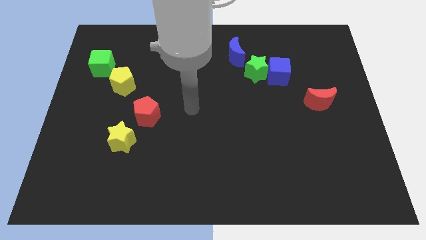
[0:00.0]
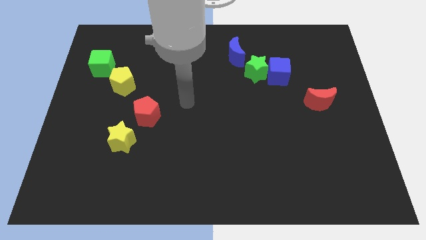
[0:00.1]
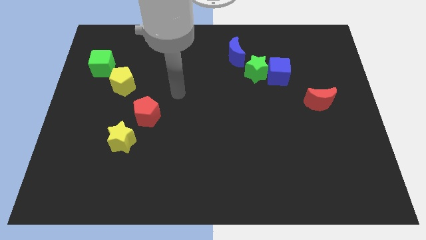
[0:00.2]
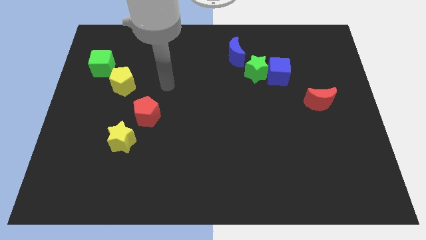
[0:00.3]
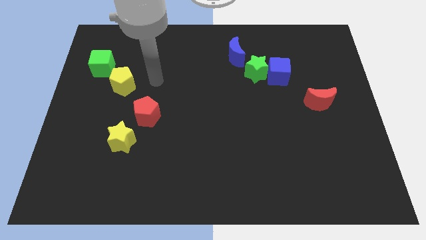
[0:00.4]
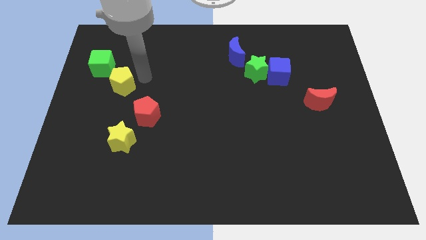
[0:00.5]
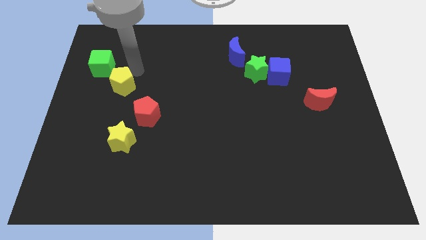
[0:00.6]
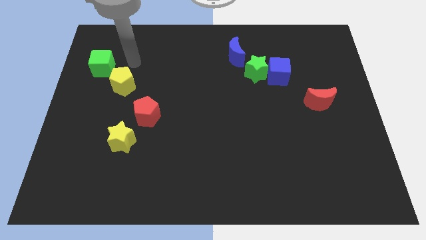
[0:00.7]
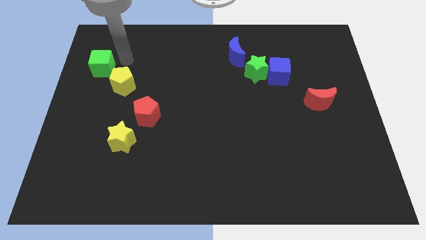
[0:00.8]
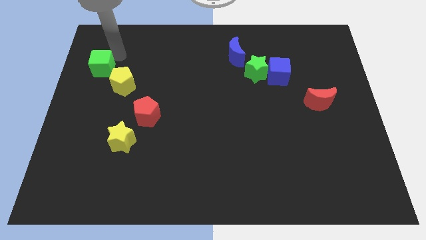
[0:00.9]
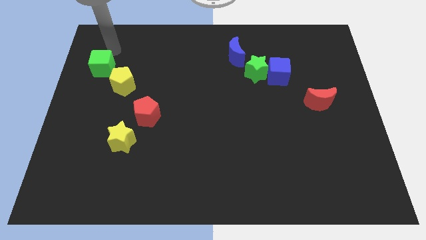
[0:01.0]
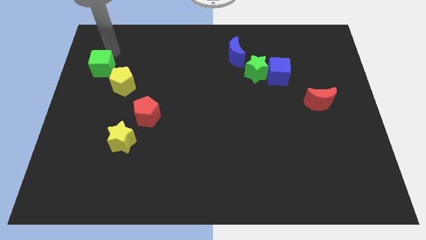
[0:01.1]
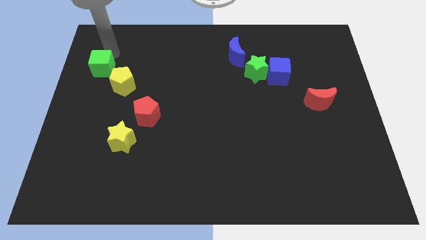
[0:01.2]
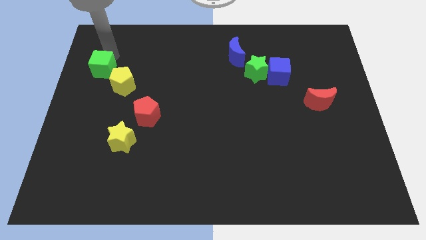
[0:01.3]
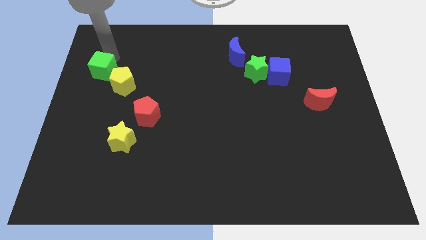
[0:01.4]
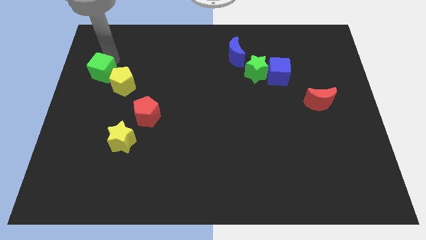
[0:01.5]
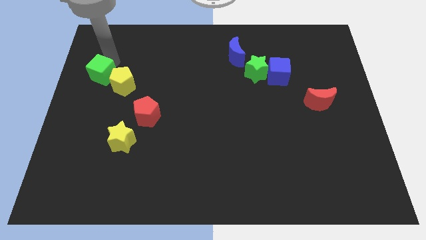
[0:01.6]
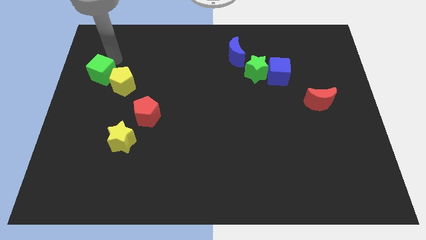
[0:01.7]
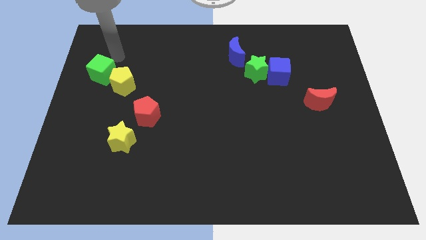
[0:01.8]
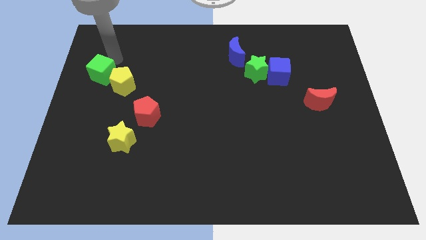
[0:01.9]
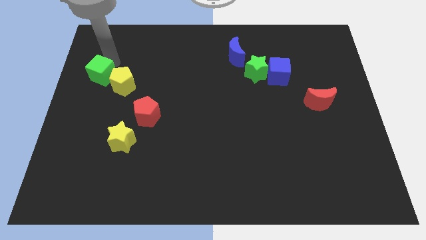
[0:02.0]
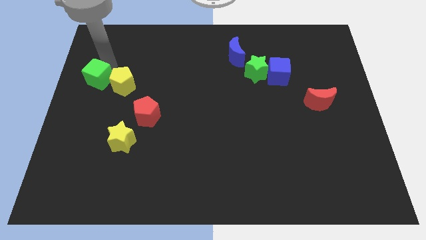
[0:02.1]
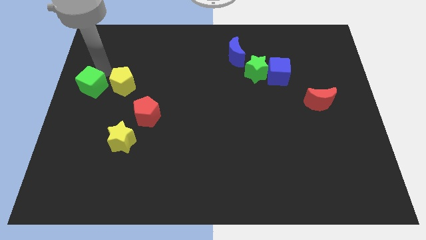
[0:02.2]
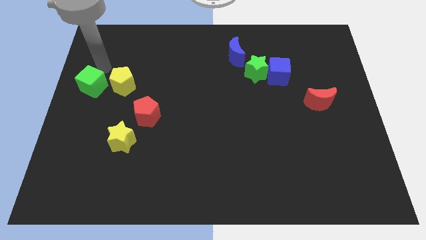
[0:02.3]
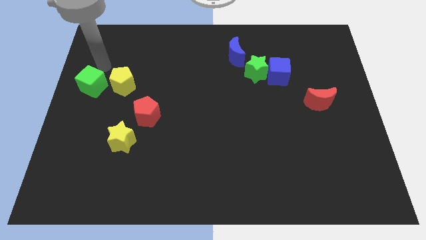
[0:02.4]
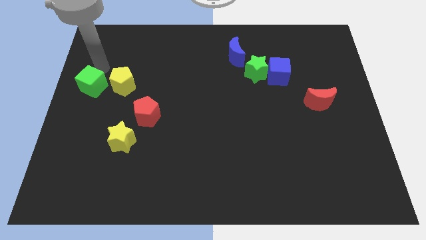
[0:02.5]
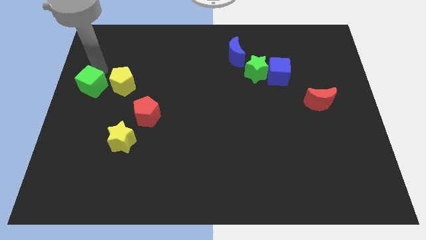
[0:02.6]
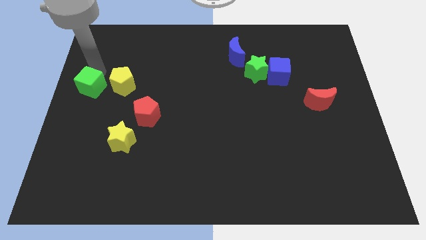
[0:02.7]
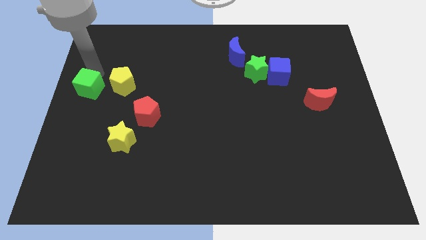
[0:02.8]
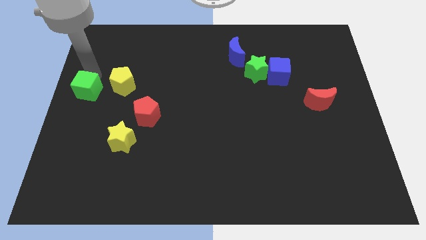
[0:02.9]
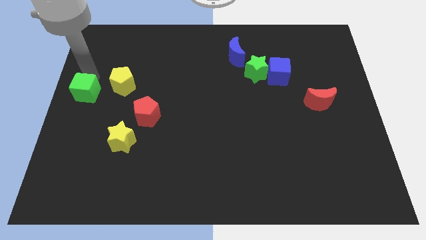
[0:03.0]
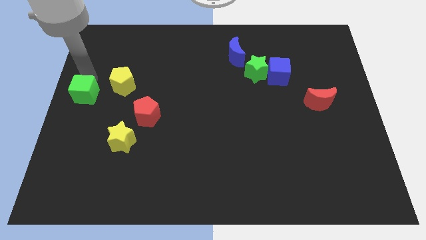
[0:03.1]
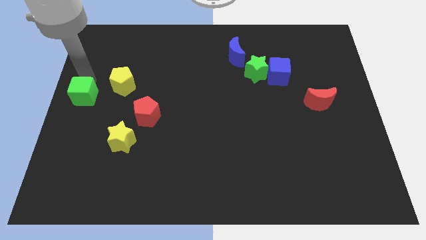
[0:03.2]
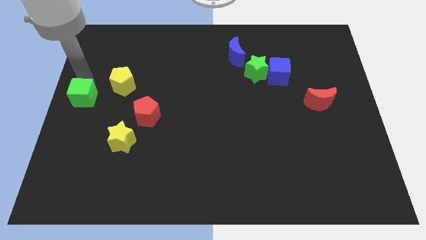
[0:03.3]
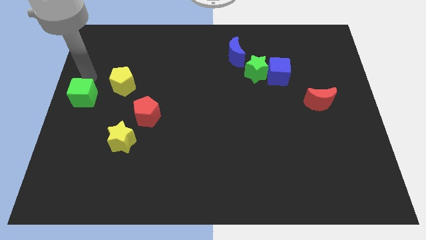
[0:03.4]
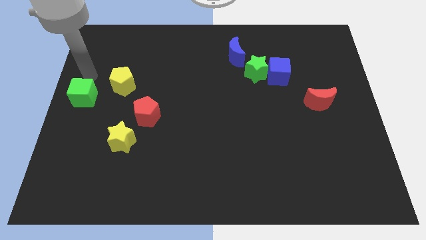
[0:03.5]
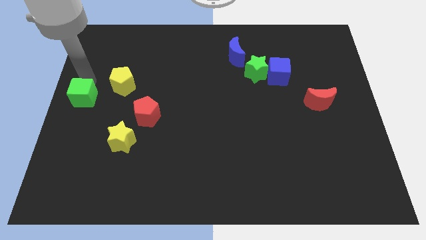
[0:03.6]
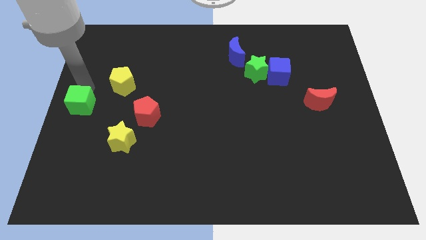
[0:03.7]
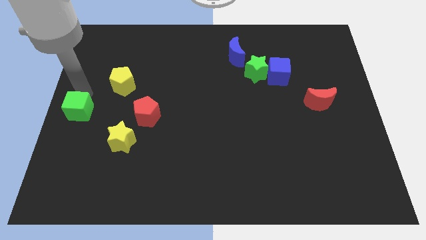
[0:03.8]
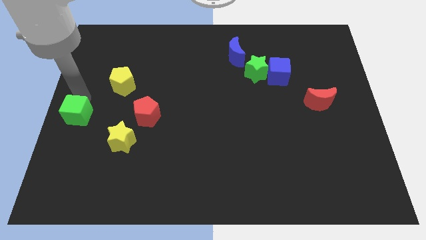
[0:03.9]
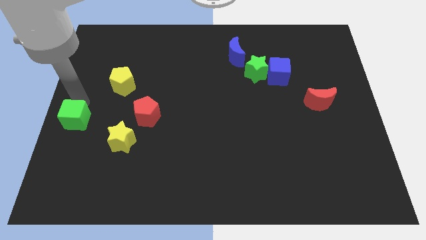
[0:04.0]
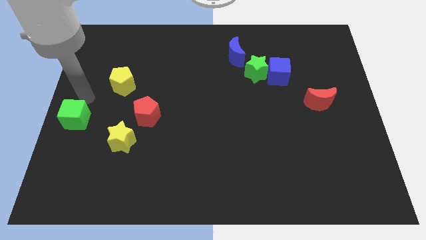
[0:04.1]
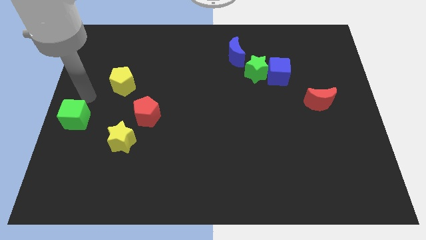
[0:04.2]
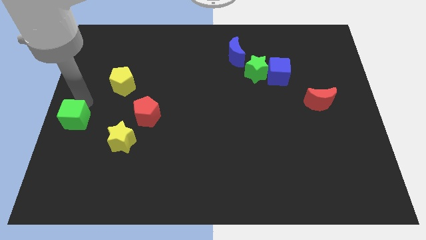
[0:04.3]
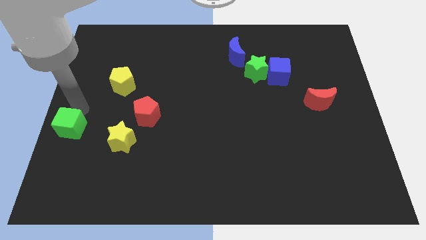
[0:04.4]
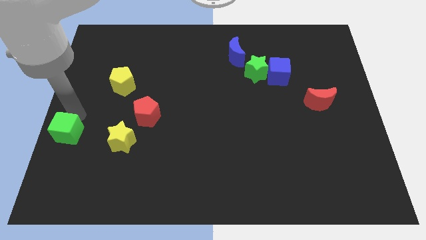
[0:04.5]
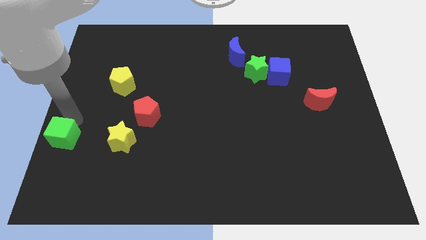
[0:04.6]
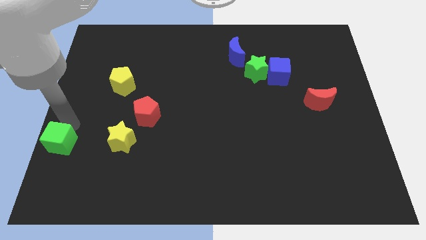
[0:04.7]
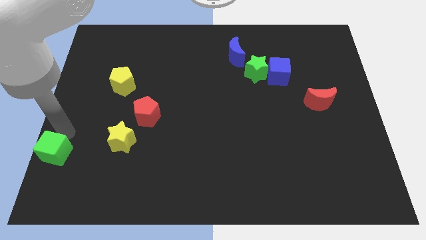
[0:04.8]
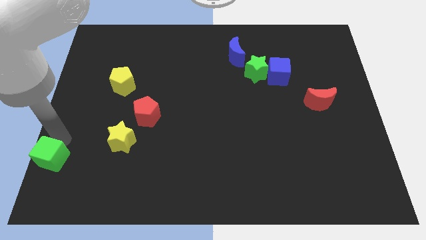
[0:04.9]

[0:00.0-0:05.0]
push the green cube to the lower left corner

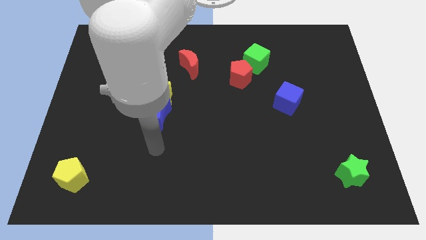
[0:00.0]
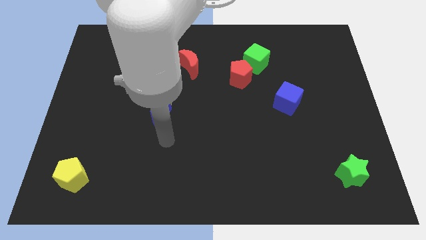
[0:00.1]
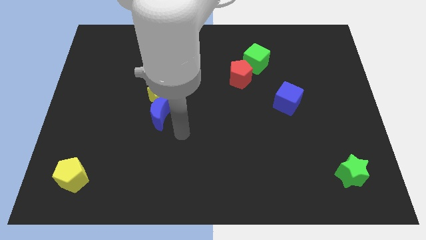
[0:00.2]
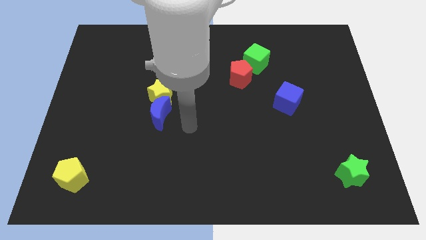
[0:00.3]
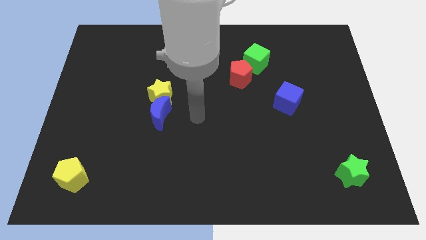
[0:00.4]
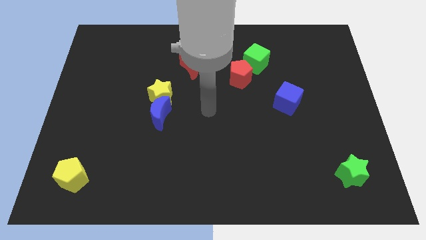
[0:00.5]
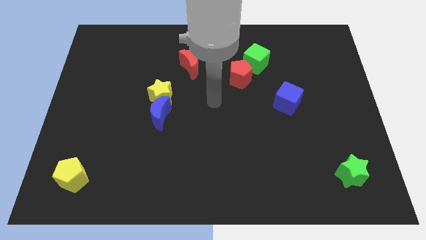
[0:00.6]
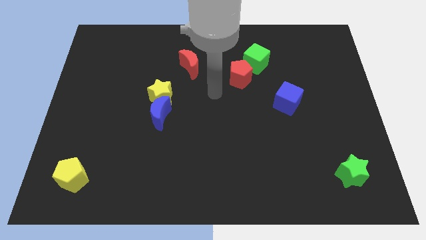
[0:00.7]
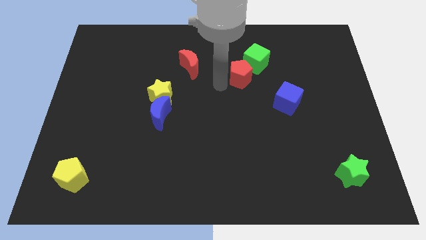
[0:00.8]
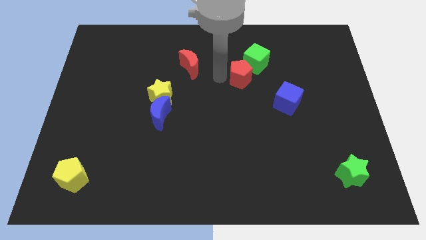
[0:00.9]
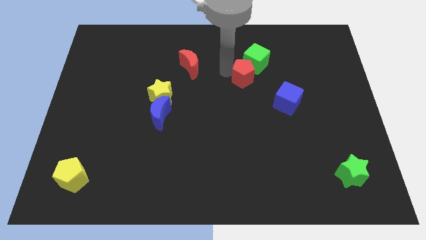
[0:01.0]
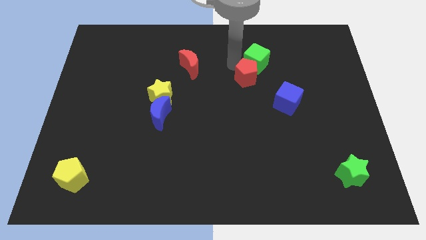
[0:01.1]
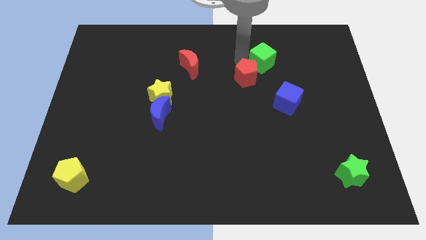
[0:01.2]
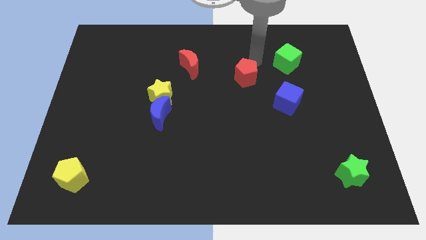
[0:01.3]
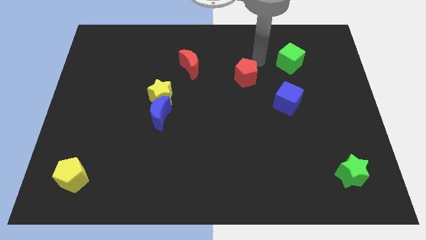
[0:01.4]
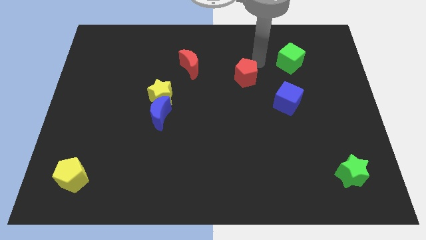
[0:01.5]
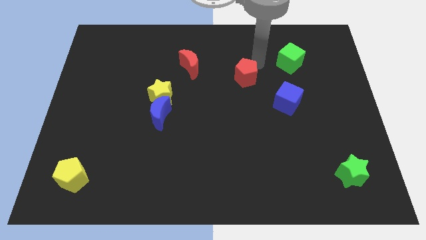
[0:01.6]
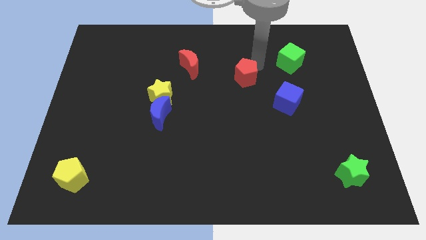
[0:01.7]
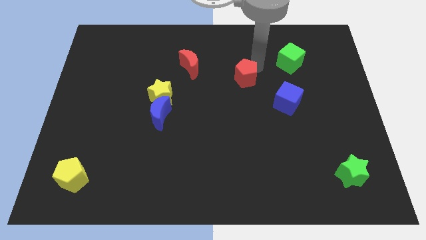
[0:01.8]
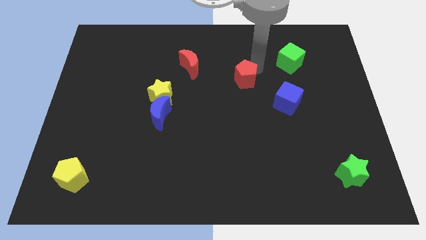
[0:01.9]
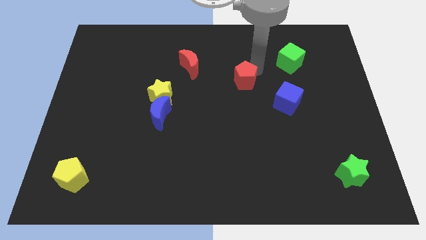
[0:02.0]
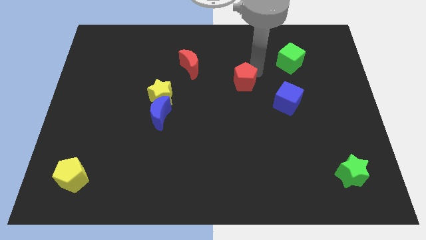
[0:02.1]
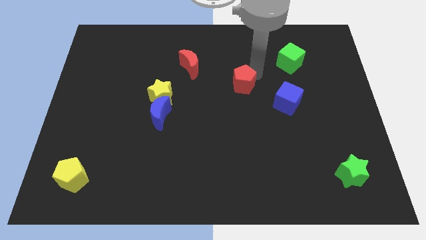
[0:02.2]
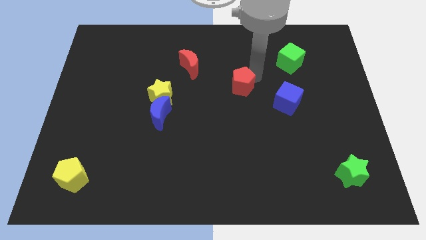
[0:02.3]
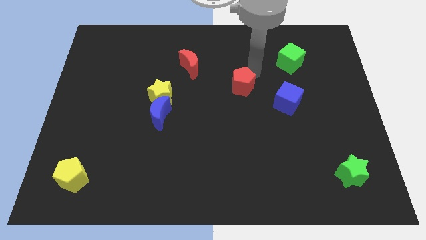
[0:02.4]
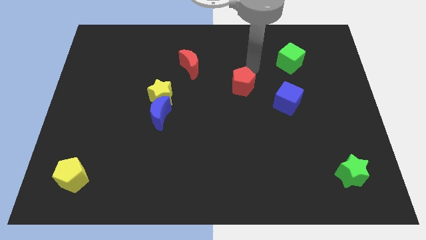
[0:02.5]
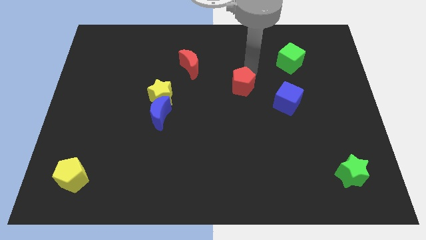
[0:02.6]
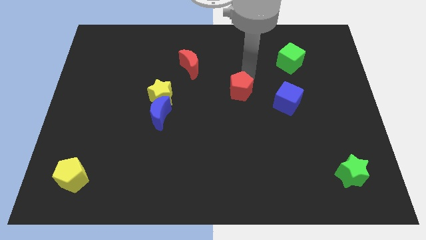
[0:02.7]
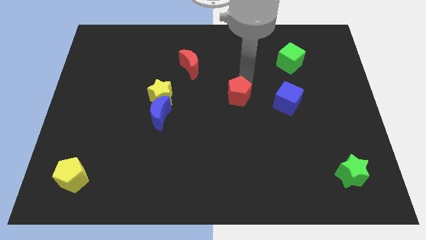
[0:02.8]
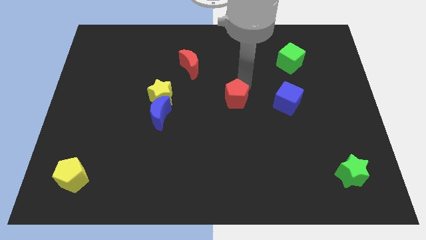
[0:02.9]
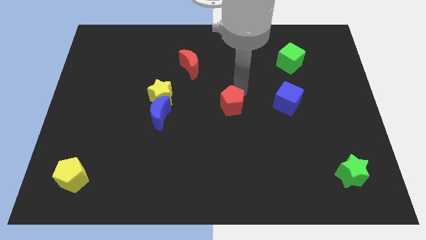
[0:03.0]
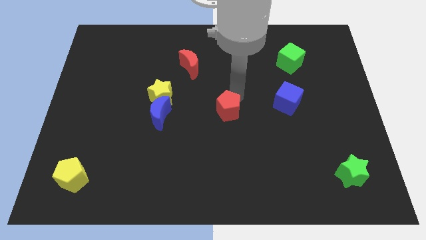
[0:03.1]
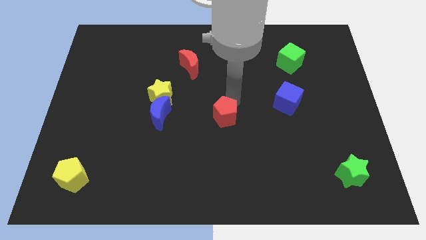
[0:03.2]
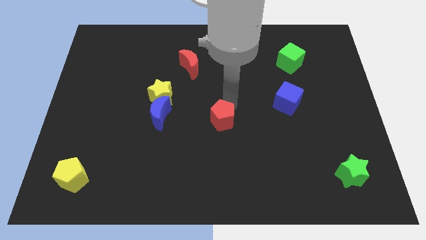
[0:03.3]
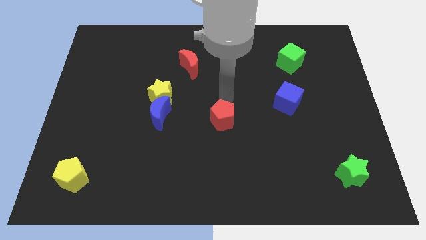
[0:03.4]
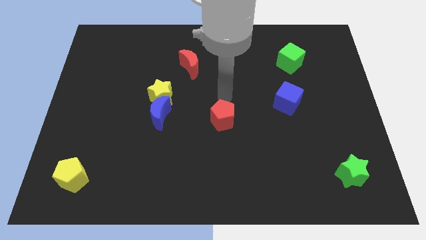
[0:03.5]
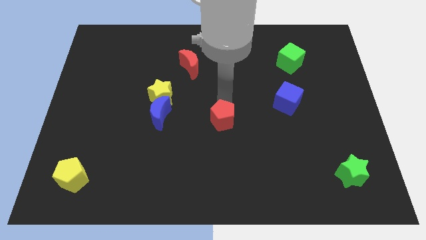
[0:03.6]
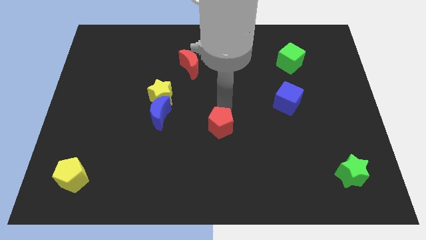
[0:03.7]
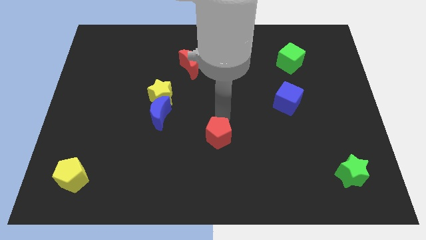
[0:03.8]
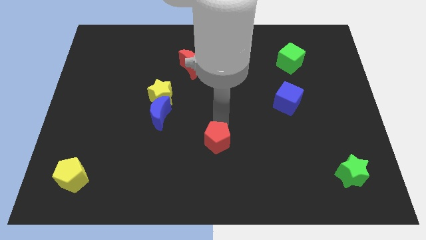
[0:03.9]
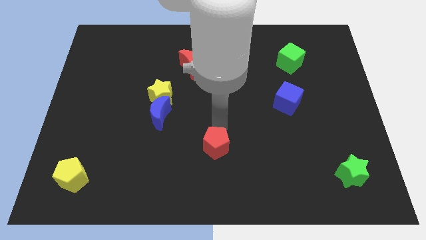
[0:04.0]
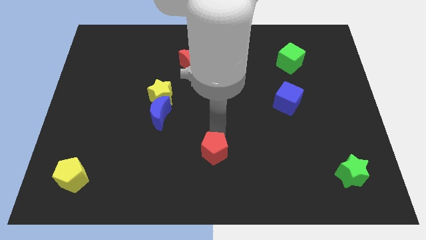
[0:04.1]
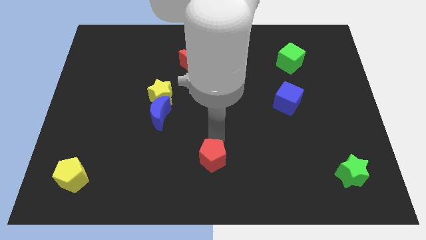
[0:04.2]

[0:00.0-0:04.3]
move the red pentagon to the bottom
